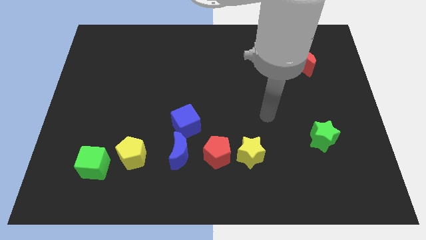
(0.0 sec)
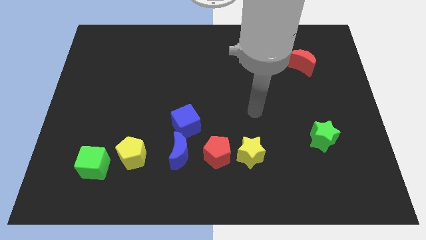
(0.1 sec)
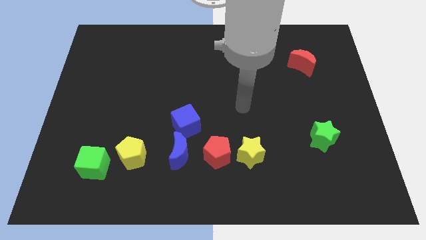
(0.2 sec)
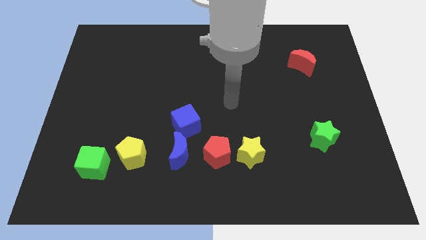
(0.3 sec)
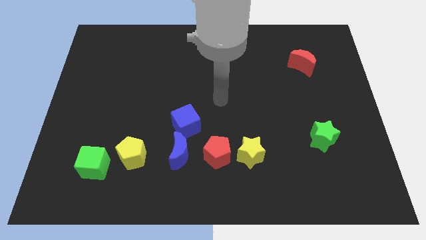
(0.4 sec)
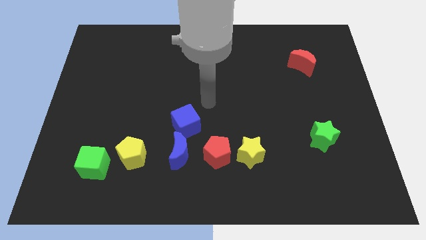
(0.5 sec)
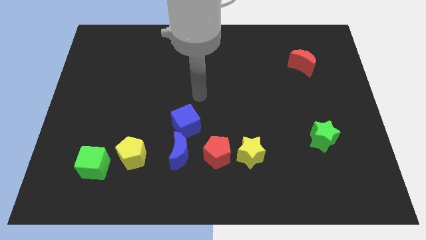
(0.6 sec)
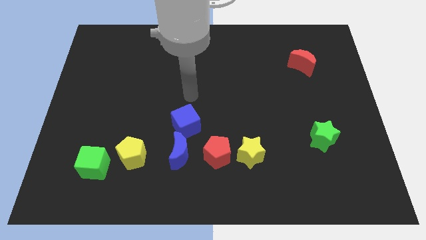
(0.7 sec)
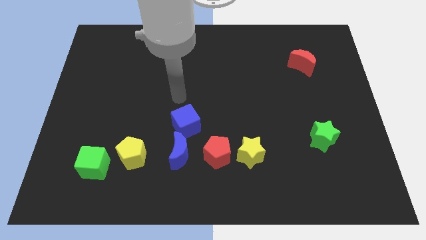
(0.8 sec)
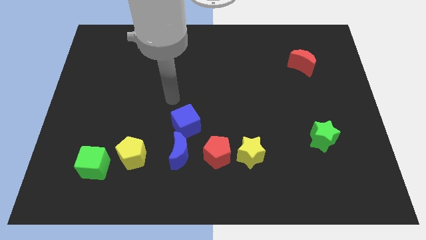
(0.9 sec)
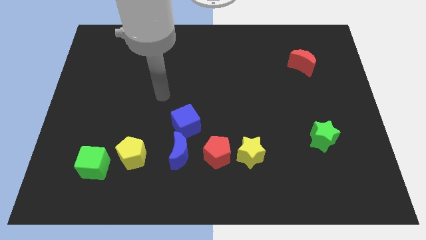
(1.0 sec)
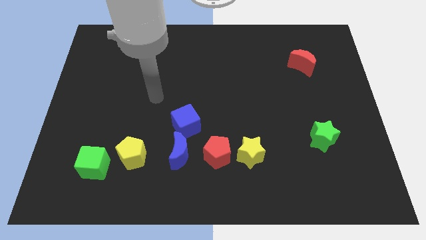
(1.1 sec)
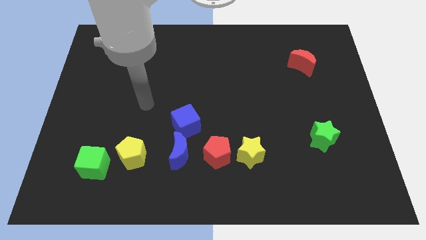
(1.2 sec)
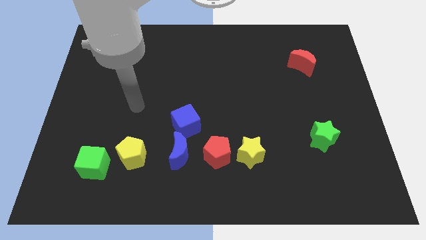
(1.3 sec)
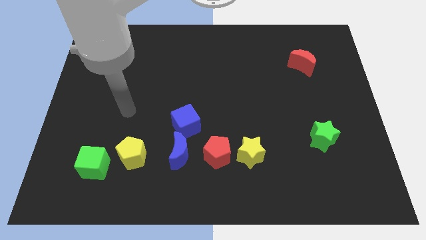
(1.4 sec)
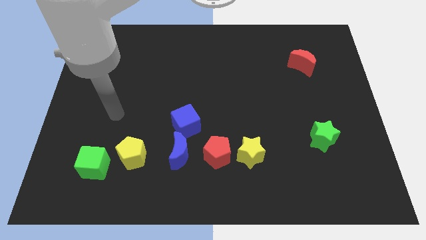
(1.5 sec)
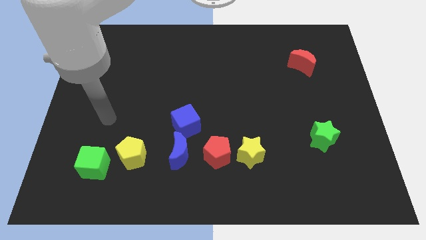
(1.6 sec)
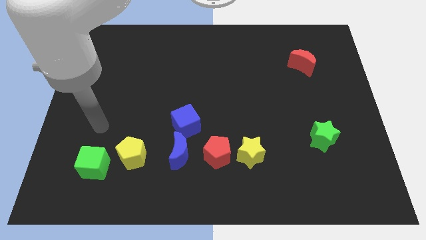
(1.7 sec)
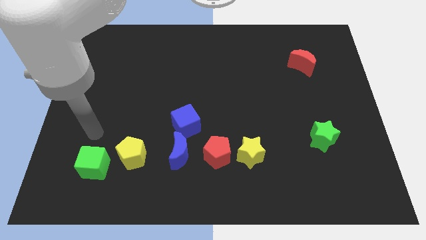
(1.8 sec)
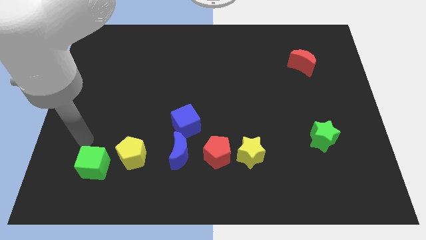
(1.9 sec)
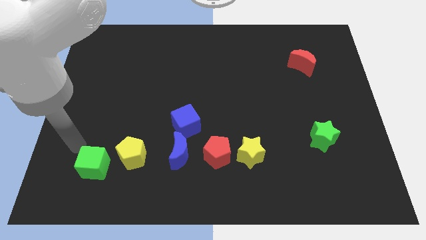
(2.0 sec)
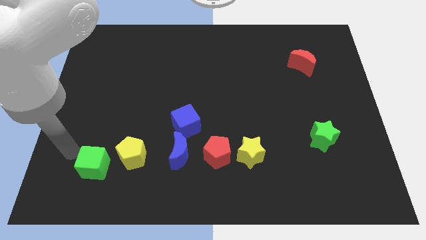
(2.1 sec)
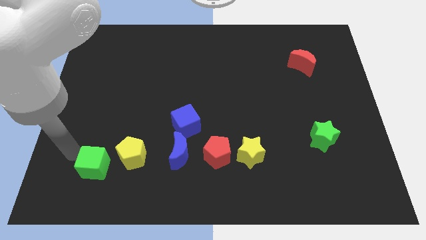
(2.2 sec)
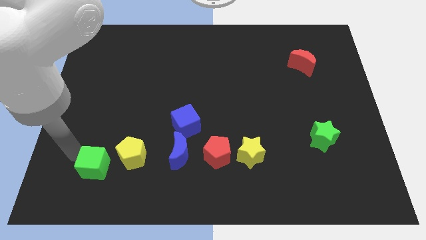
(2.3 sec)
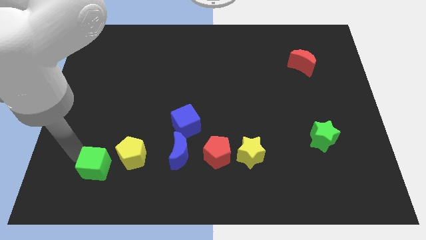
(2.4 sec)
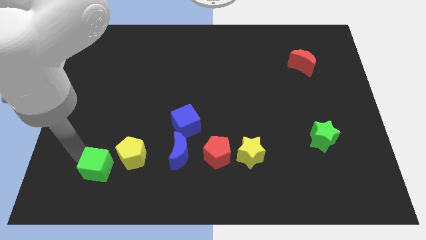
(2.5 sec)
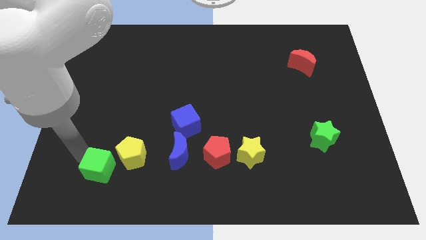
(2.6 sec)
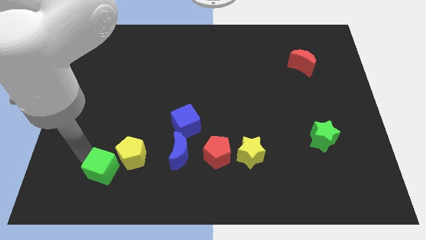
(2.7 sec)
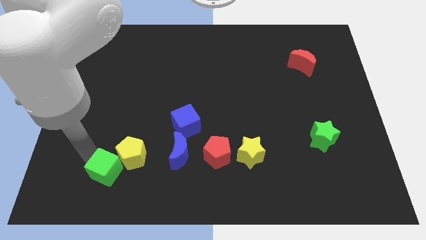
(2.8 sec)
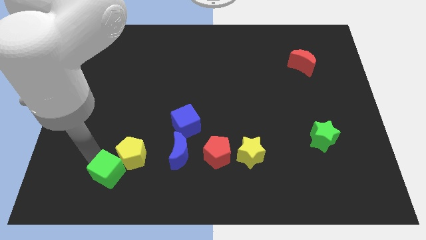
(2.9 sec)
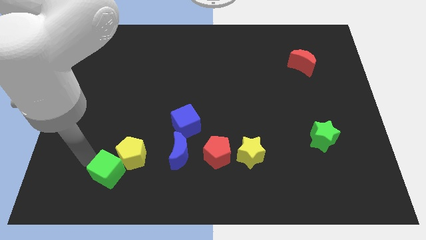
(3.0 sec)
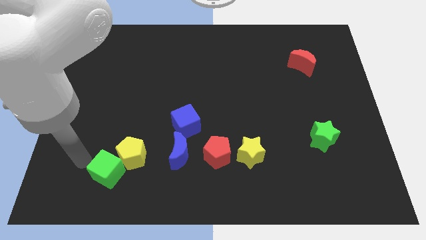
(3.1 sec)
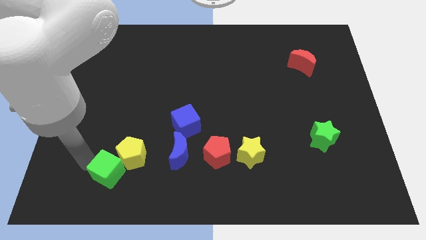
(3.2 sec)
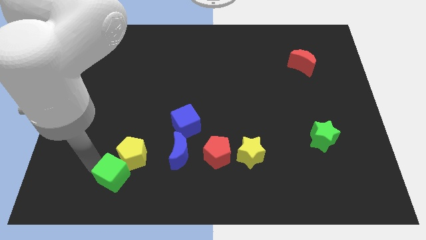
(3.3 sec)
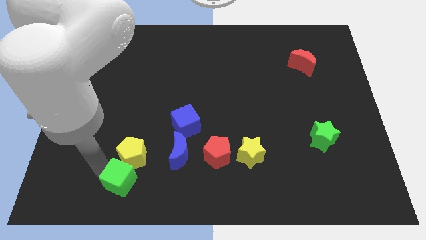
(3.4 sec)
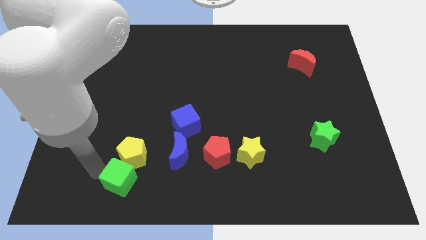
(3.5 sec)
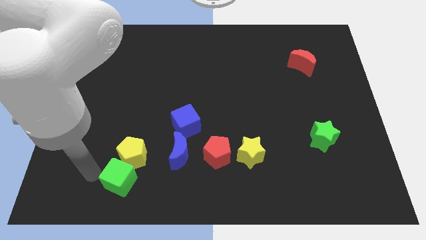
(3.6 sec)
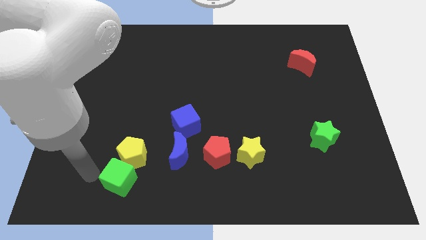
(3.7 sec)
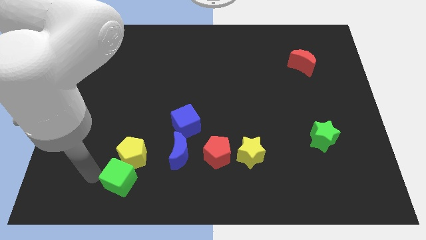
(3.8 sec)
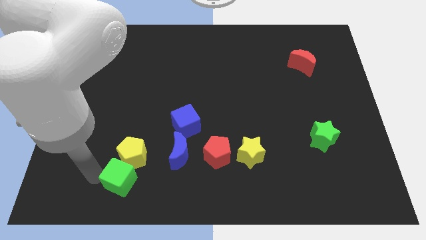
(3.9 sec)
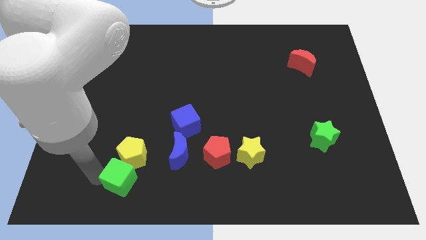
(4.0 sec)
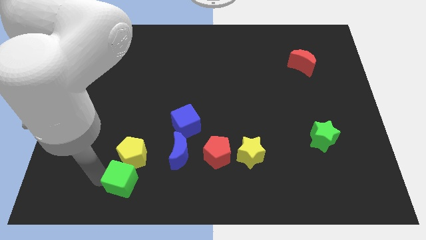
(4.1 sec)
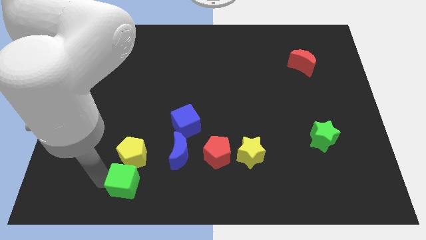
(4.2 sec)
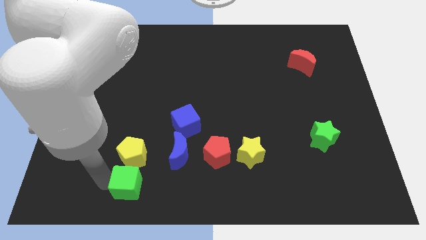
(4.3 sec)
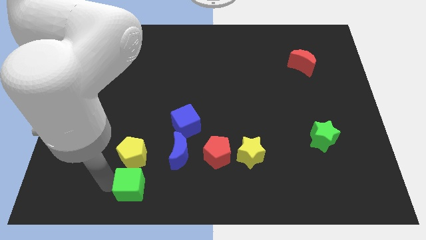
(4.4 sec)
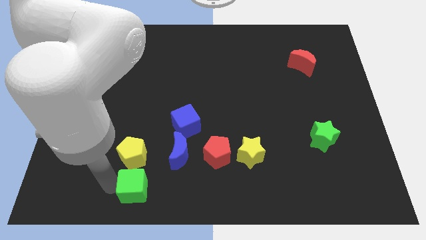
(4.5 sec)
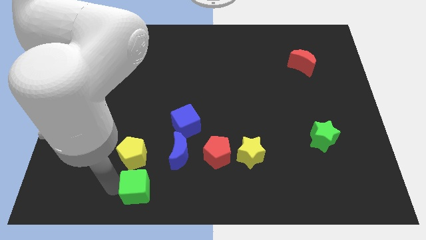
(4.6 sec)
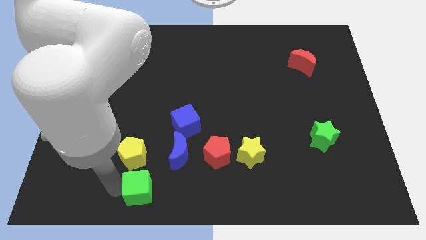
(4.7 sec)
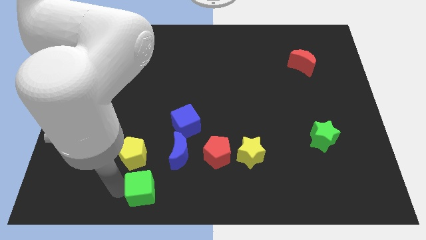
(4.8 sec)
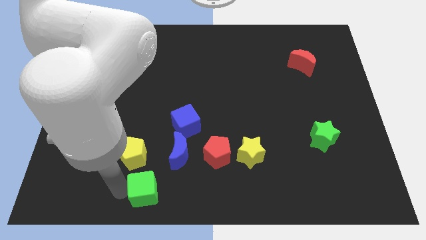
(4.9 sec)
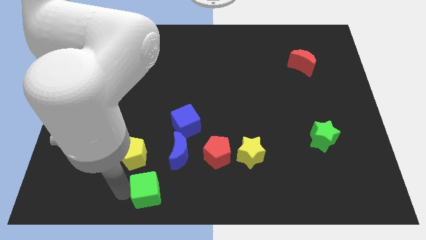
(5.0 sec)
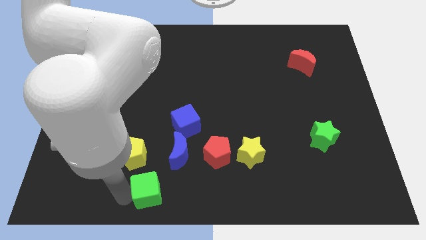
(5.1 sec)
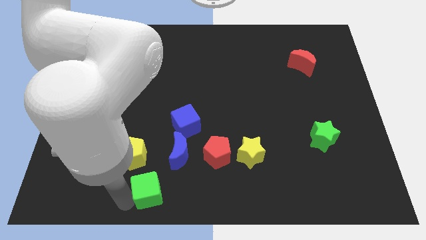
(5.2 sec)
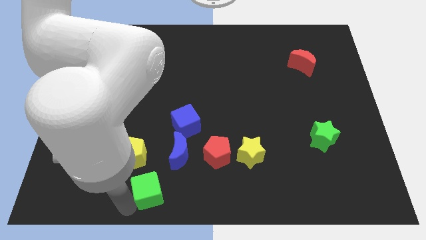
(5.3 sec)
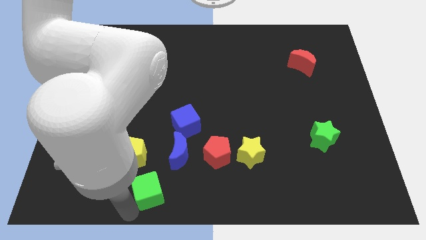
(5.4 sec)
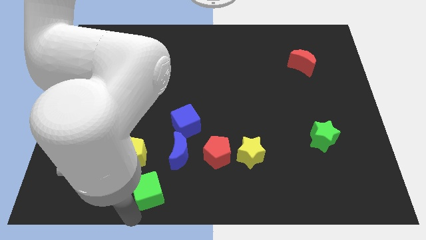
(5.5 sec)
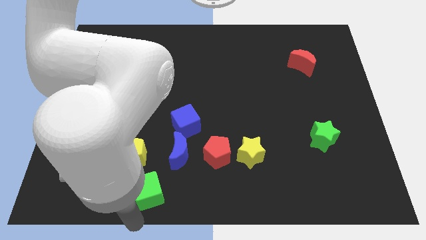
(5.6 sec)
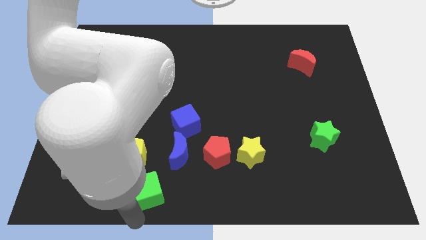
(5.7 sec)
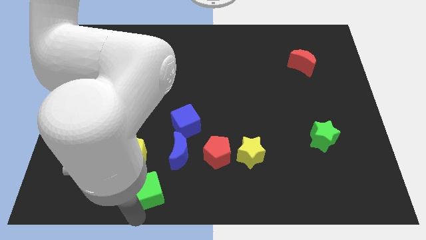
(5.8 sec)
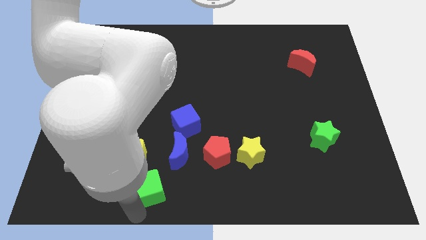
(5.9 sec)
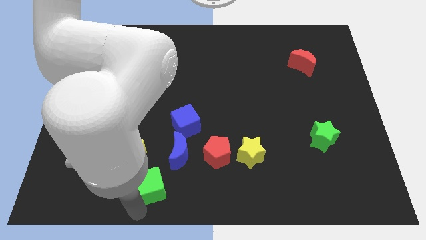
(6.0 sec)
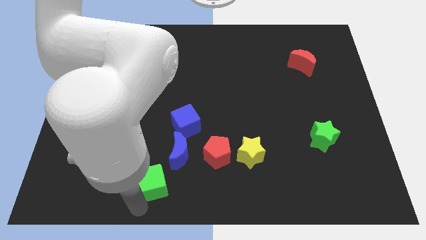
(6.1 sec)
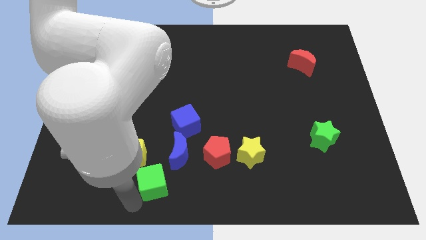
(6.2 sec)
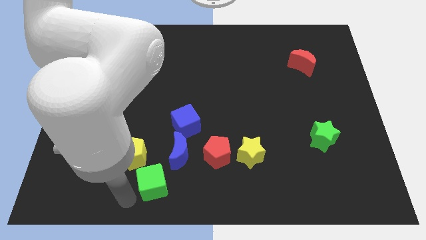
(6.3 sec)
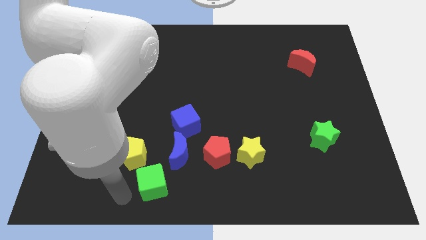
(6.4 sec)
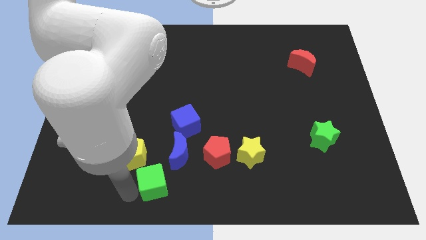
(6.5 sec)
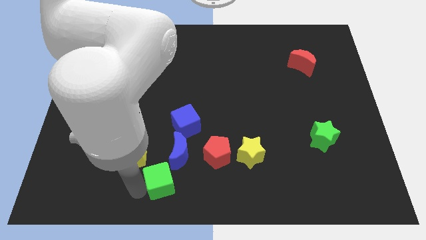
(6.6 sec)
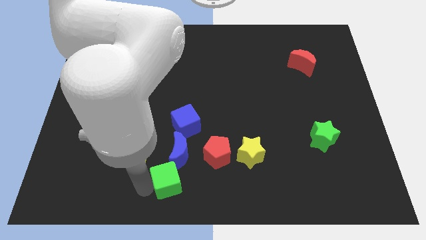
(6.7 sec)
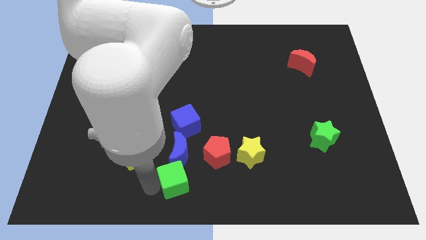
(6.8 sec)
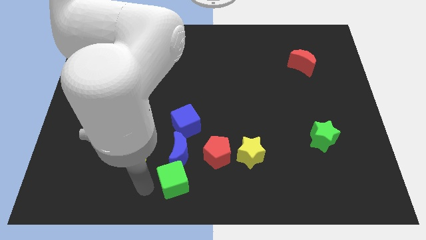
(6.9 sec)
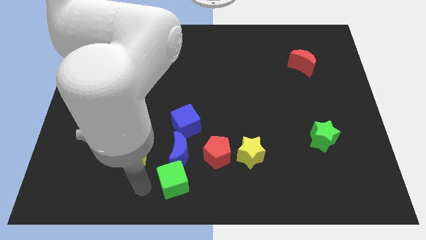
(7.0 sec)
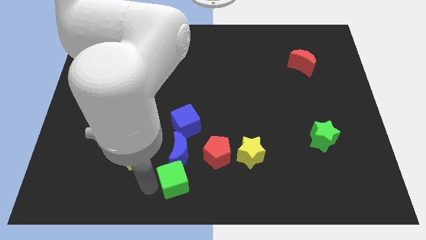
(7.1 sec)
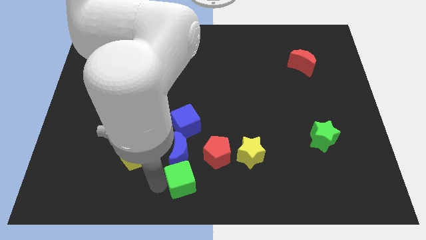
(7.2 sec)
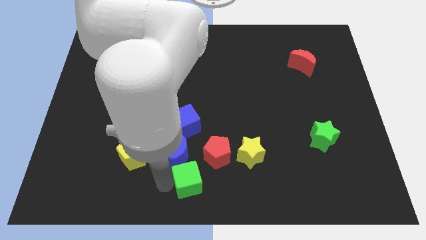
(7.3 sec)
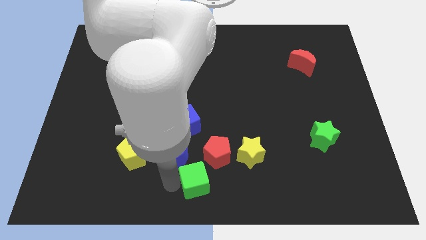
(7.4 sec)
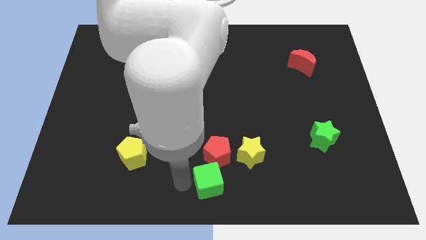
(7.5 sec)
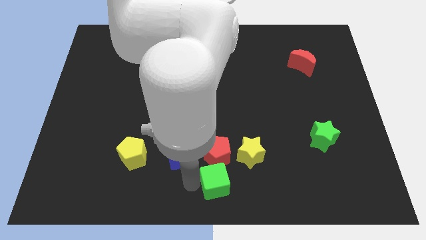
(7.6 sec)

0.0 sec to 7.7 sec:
move the green cube to the bottom right of the red pentagon

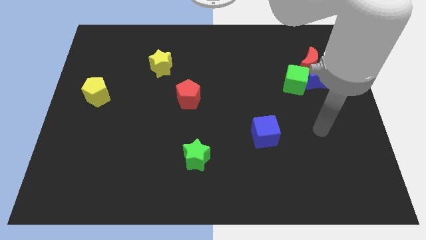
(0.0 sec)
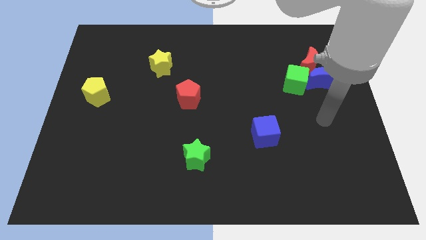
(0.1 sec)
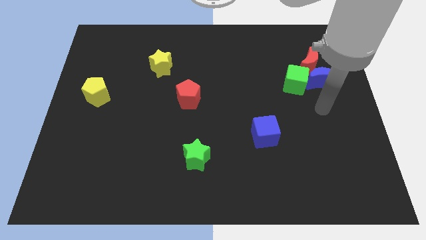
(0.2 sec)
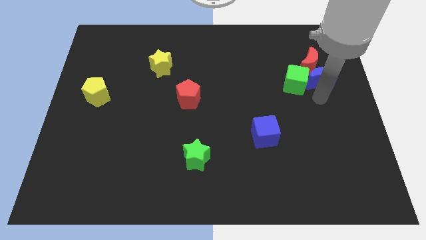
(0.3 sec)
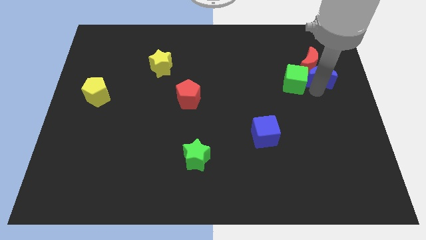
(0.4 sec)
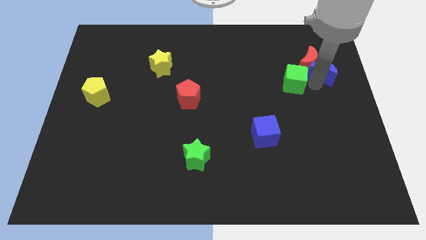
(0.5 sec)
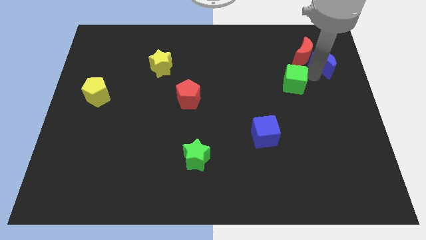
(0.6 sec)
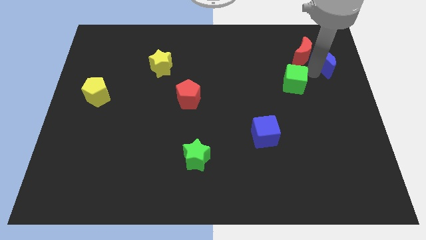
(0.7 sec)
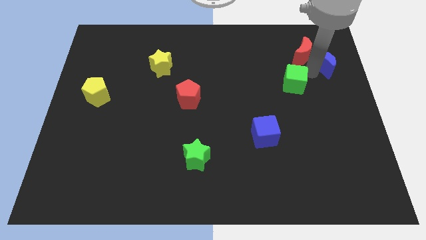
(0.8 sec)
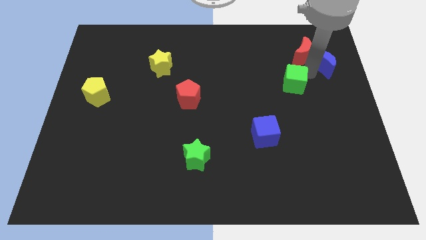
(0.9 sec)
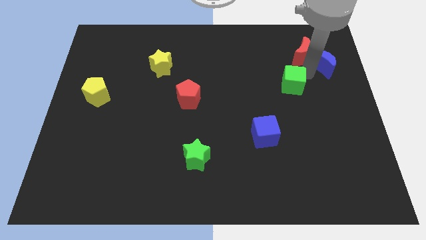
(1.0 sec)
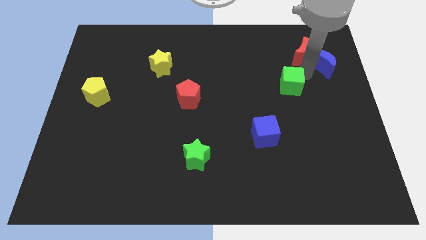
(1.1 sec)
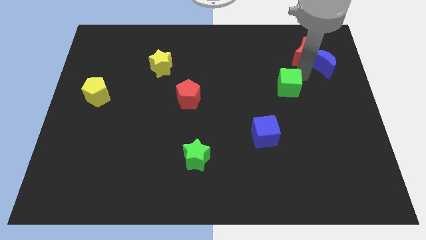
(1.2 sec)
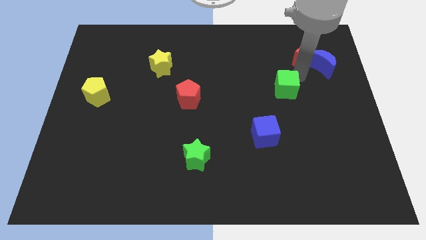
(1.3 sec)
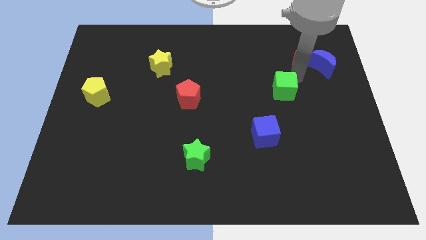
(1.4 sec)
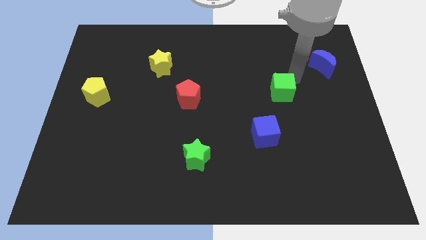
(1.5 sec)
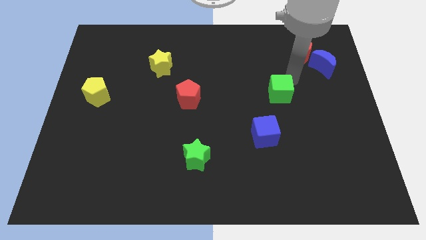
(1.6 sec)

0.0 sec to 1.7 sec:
slide the green cube above the blue cube
